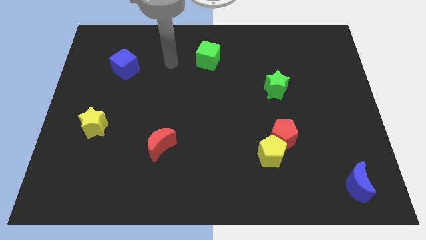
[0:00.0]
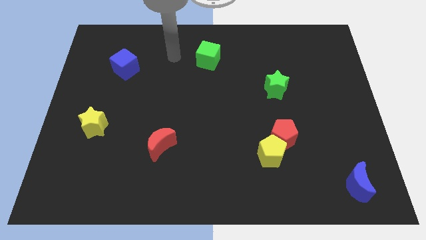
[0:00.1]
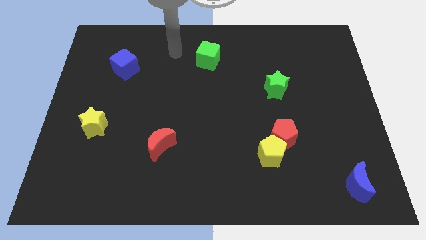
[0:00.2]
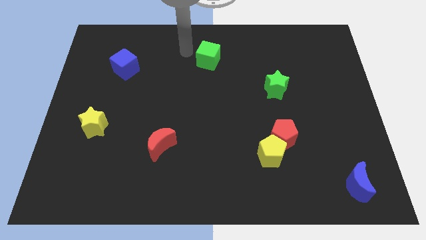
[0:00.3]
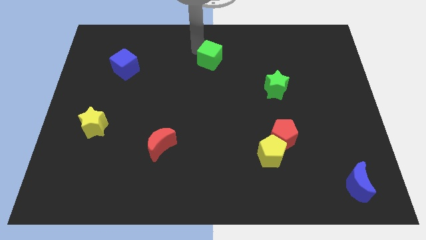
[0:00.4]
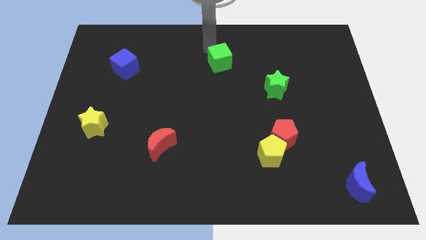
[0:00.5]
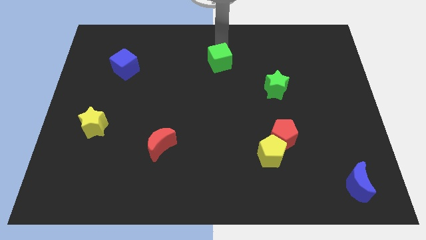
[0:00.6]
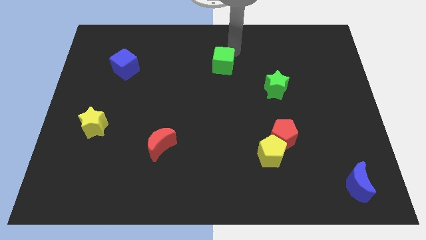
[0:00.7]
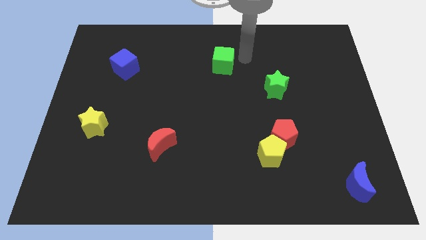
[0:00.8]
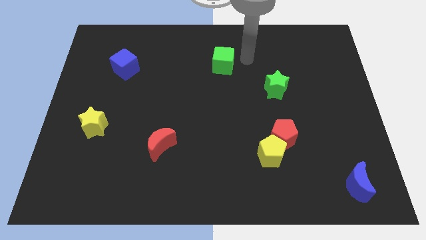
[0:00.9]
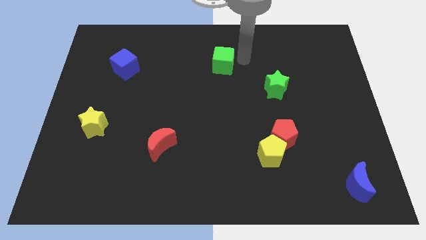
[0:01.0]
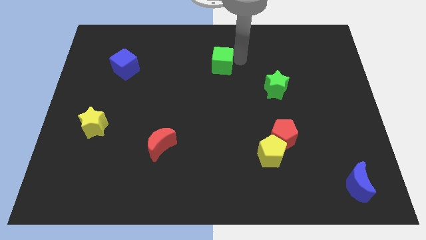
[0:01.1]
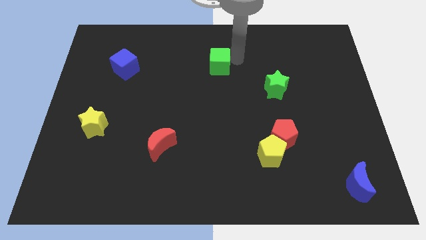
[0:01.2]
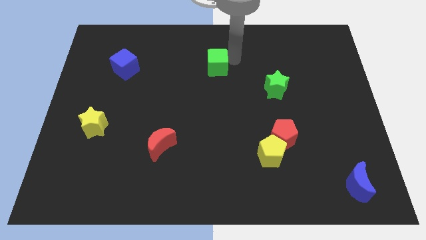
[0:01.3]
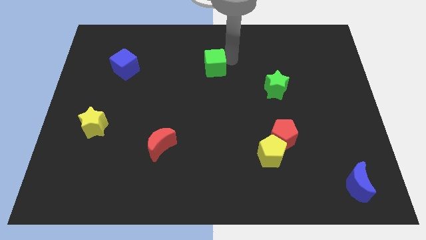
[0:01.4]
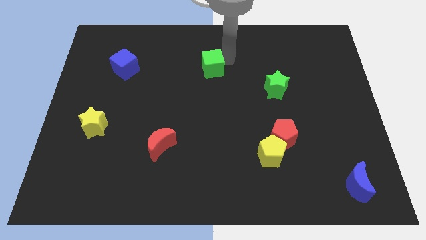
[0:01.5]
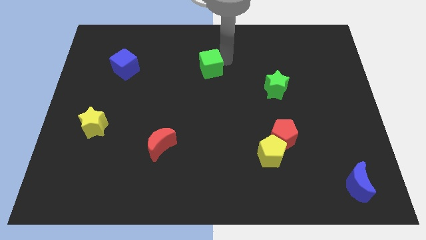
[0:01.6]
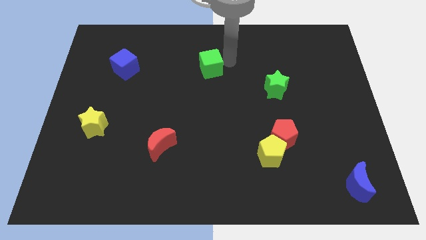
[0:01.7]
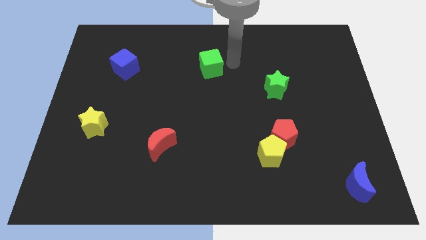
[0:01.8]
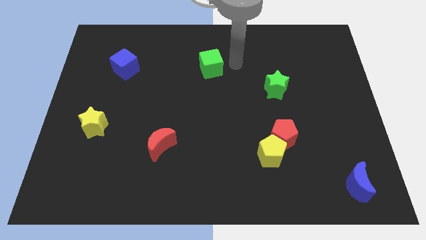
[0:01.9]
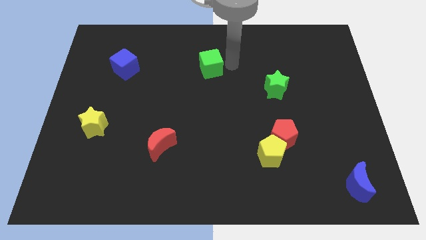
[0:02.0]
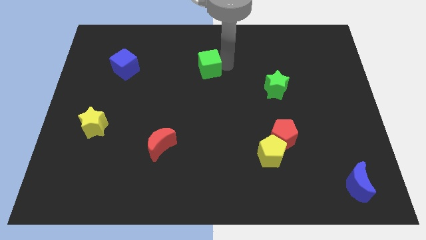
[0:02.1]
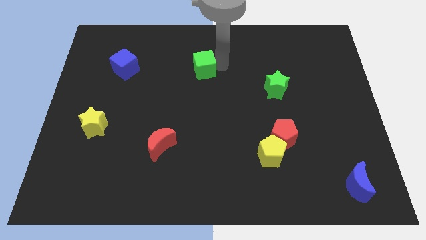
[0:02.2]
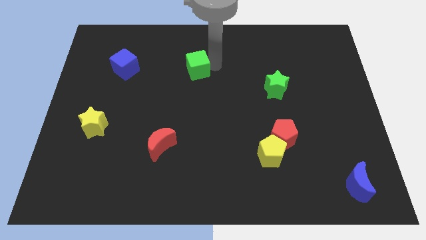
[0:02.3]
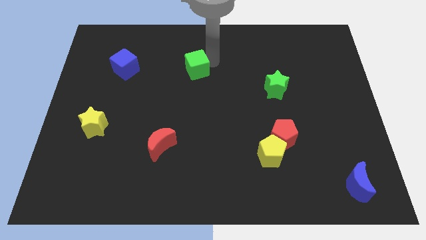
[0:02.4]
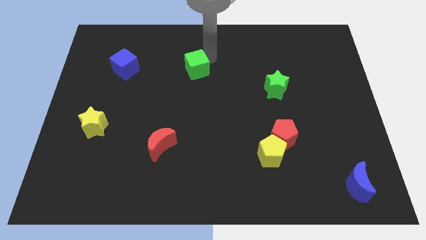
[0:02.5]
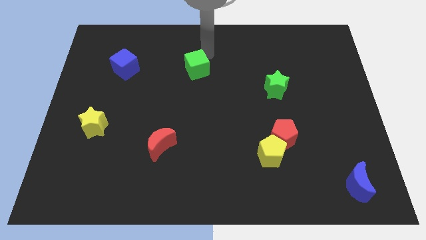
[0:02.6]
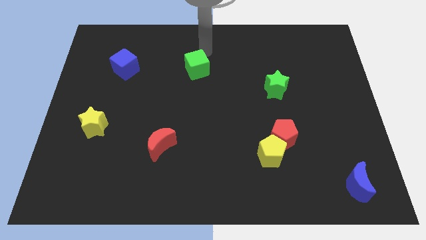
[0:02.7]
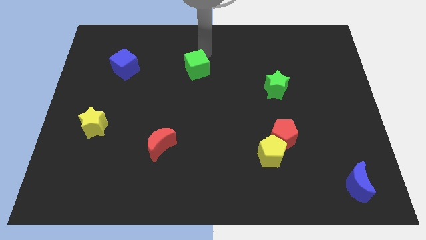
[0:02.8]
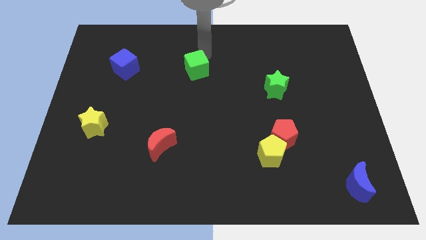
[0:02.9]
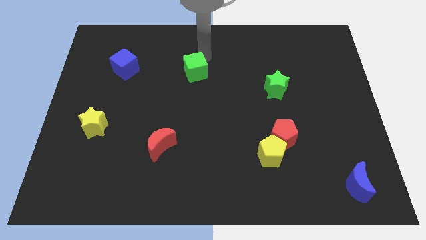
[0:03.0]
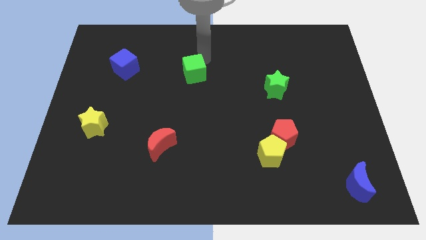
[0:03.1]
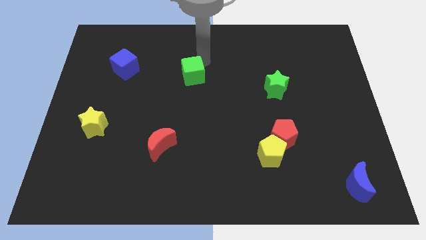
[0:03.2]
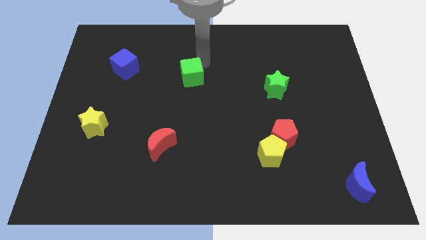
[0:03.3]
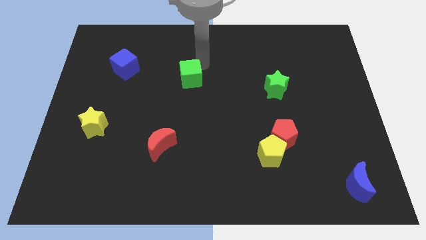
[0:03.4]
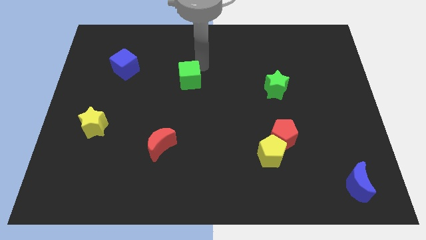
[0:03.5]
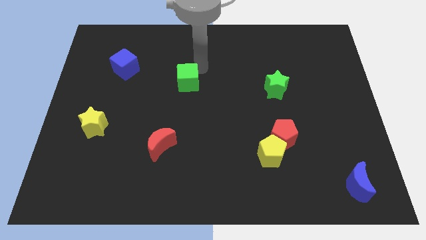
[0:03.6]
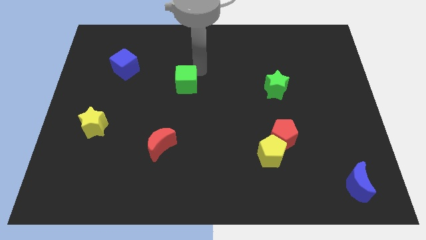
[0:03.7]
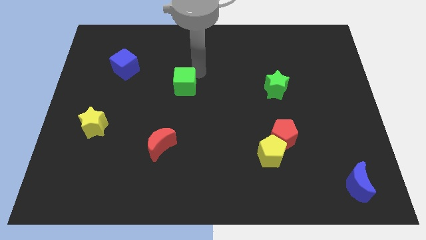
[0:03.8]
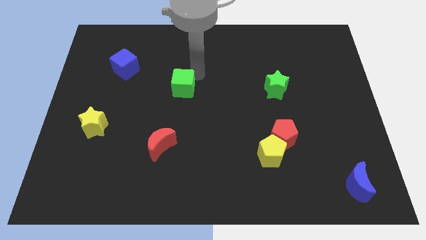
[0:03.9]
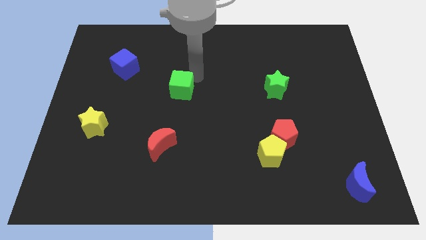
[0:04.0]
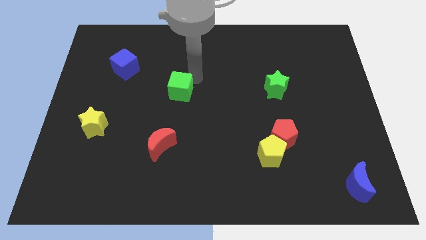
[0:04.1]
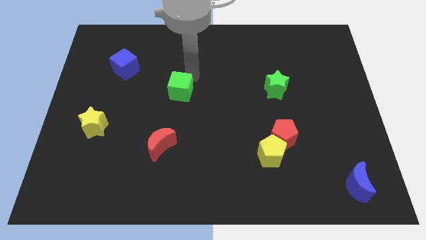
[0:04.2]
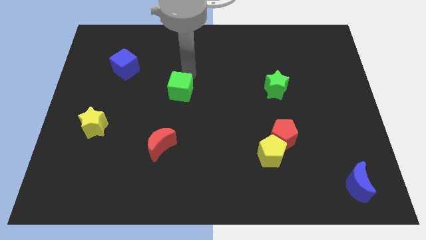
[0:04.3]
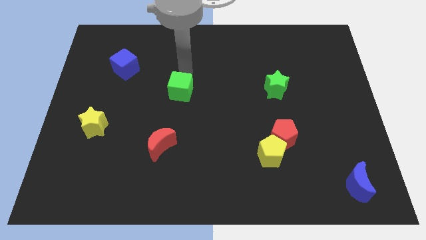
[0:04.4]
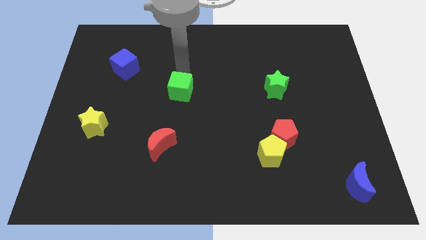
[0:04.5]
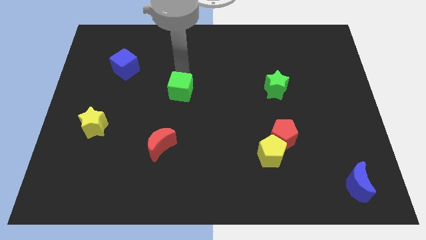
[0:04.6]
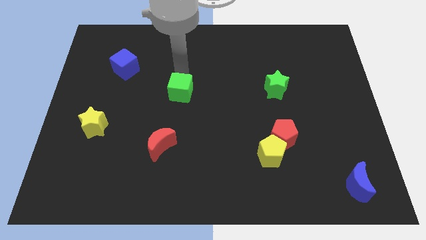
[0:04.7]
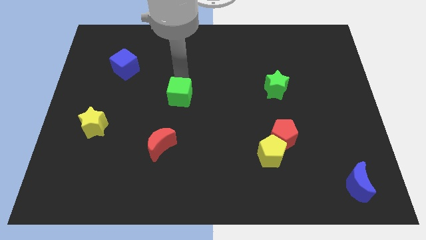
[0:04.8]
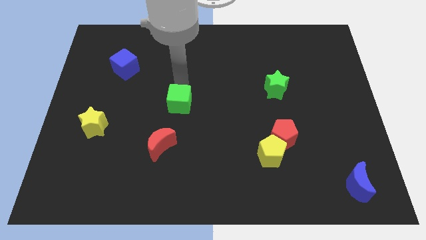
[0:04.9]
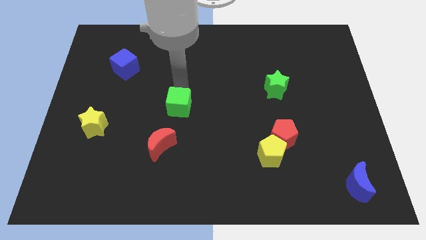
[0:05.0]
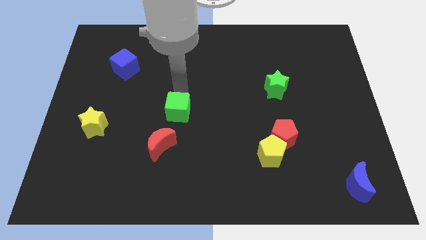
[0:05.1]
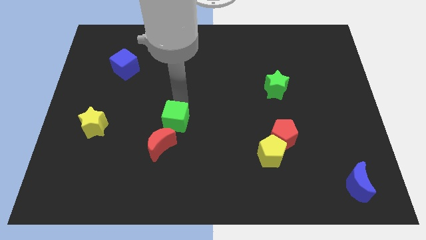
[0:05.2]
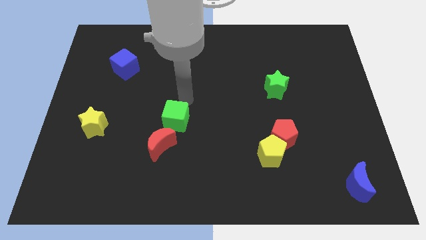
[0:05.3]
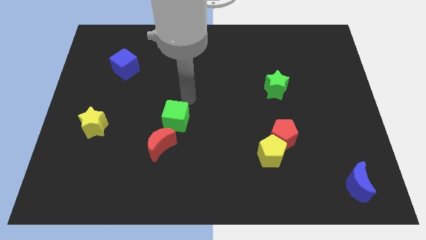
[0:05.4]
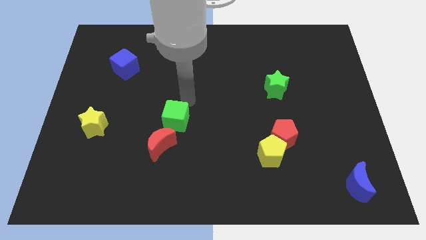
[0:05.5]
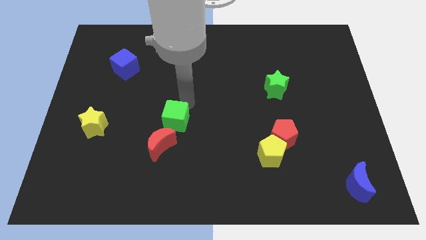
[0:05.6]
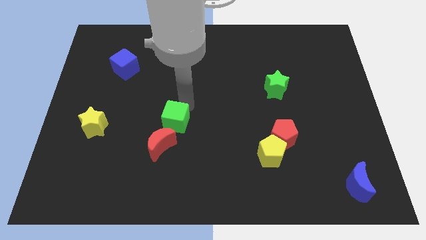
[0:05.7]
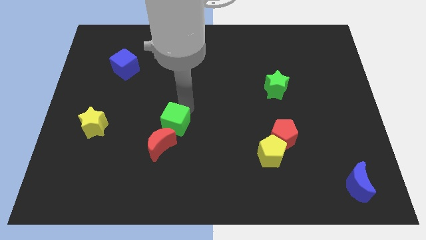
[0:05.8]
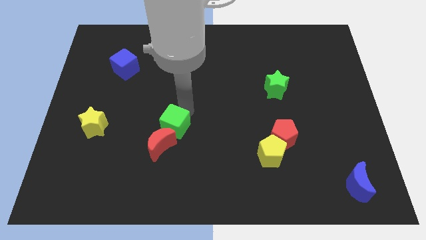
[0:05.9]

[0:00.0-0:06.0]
slide the green cube towards the red moon

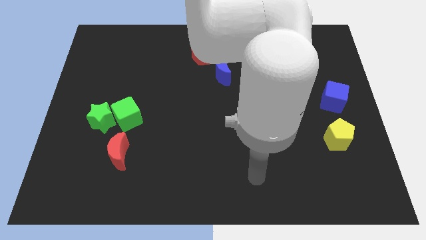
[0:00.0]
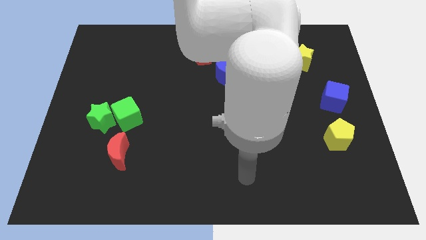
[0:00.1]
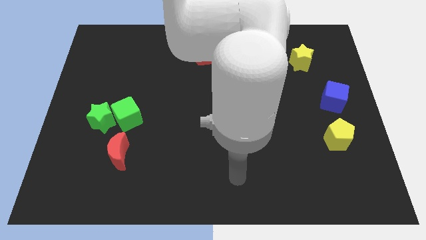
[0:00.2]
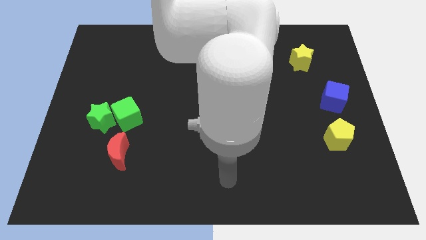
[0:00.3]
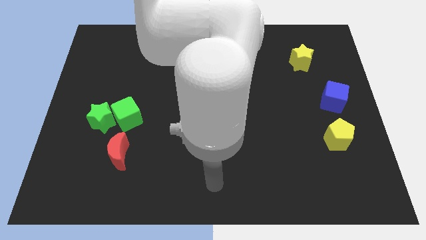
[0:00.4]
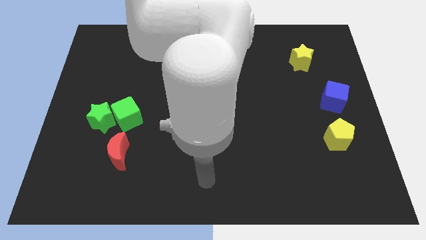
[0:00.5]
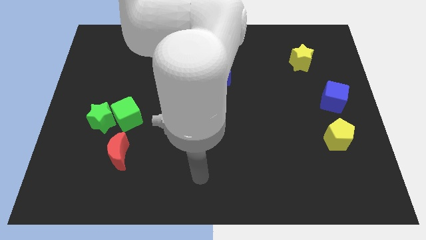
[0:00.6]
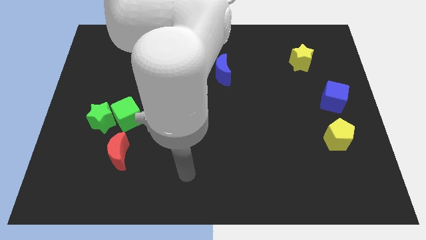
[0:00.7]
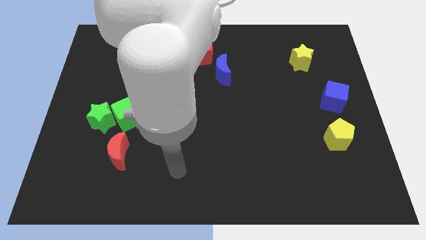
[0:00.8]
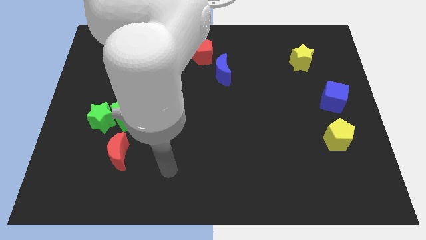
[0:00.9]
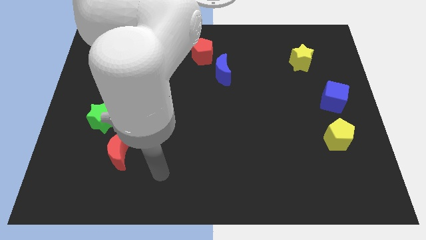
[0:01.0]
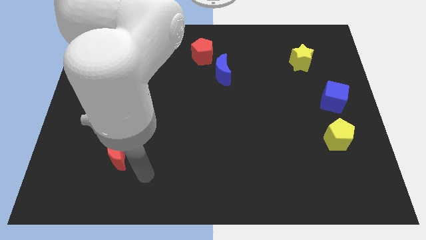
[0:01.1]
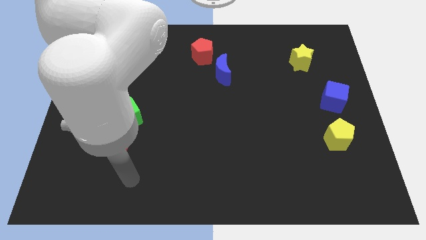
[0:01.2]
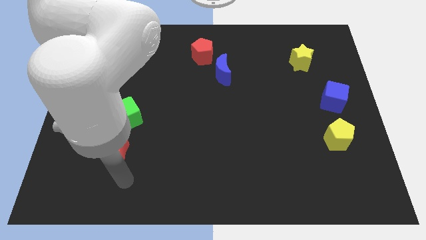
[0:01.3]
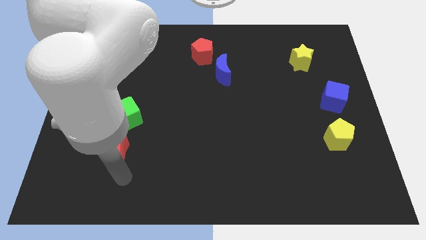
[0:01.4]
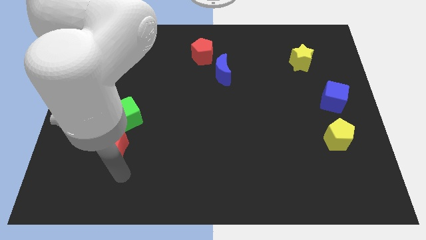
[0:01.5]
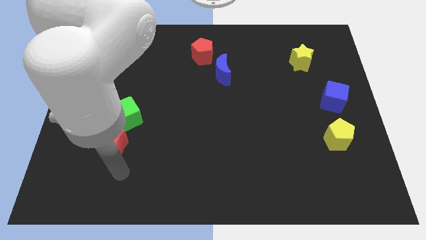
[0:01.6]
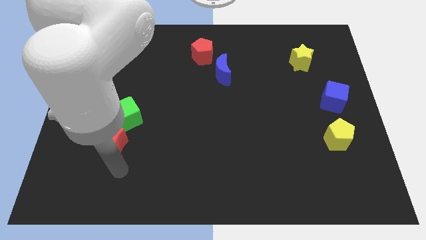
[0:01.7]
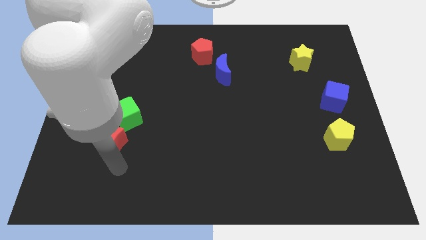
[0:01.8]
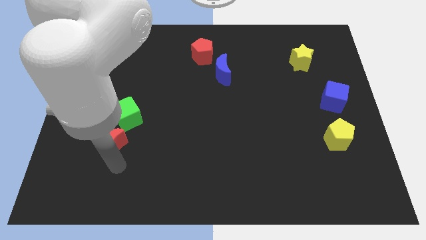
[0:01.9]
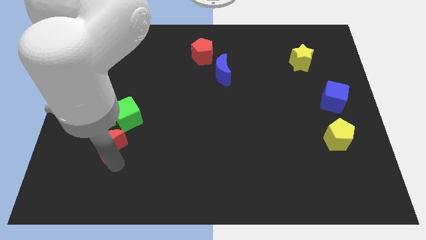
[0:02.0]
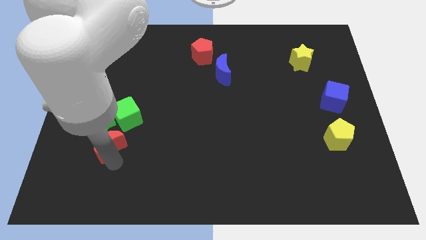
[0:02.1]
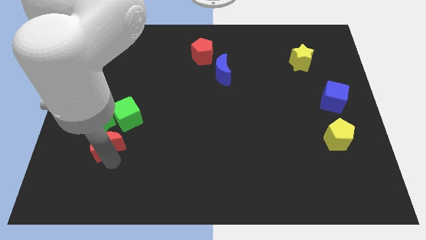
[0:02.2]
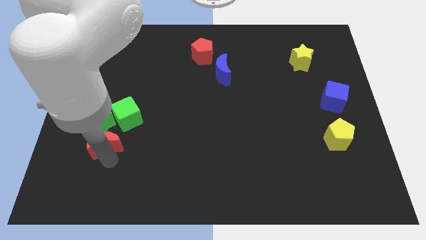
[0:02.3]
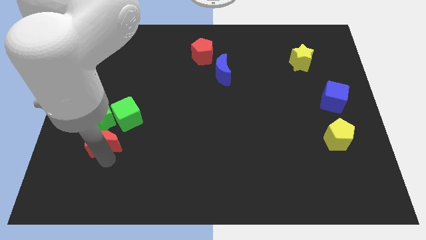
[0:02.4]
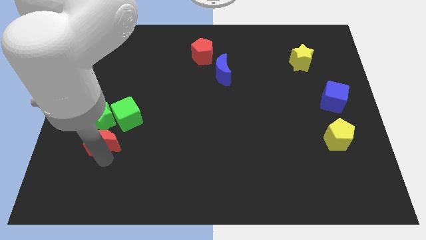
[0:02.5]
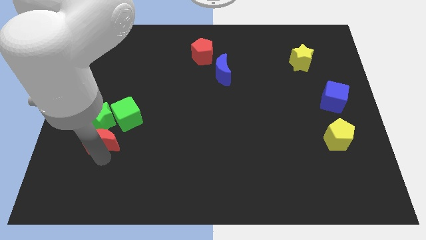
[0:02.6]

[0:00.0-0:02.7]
move the red moon close to the green star
